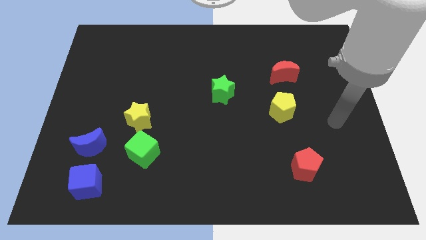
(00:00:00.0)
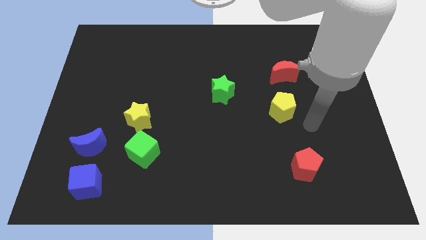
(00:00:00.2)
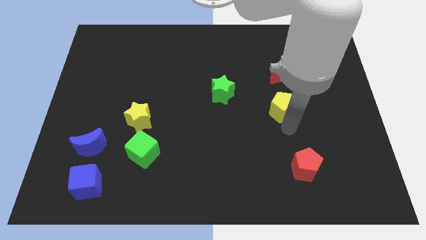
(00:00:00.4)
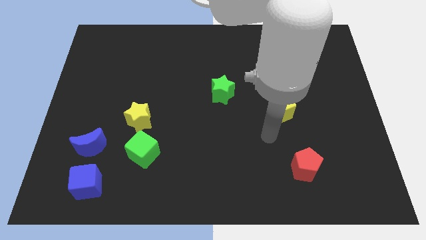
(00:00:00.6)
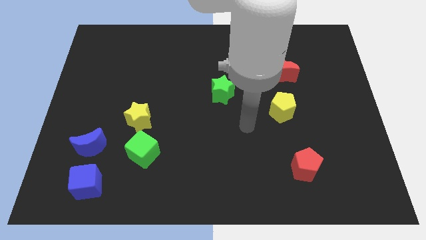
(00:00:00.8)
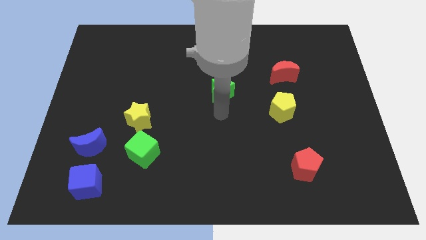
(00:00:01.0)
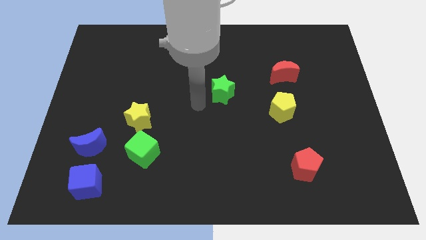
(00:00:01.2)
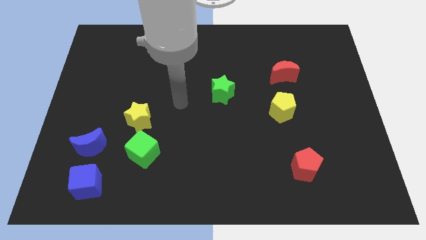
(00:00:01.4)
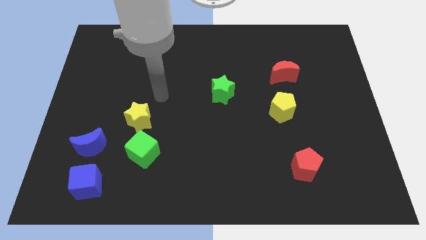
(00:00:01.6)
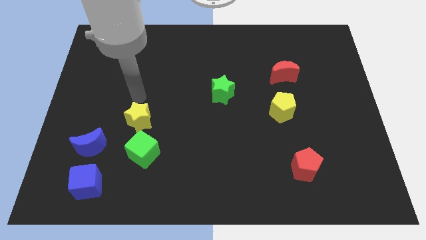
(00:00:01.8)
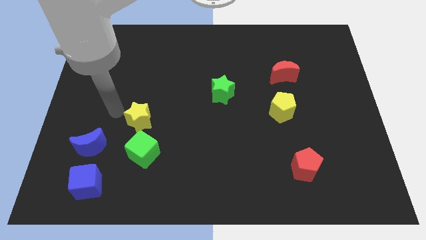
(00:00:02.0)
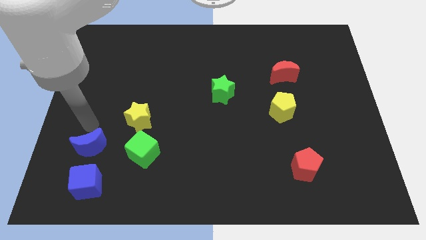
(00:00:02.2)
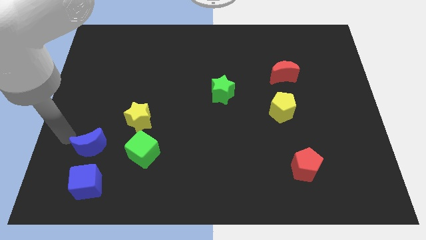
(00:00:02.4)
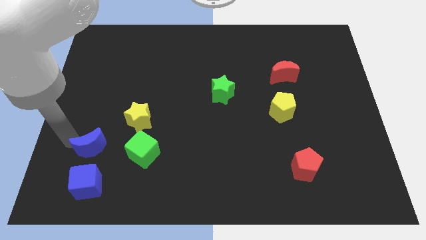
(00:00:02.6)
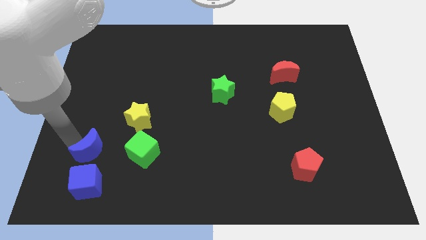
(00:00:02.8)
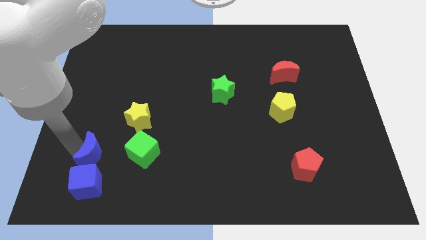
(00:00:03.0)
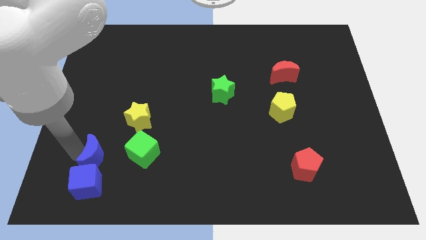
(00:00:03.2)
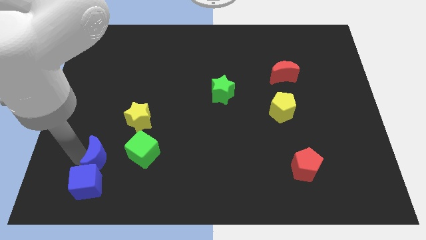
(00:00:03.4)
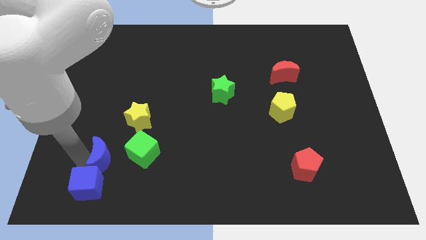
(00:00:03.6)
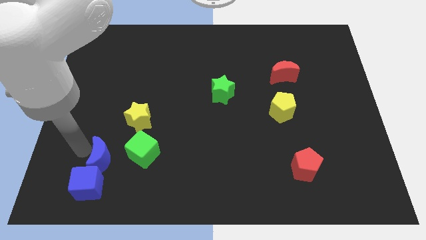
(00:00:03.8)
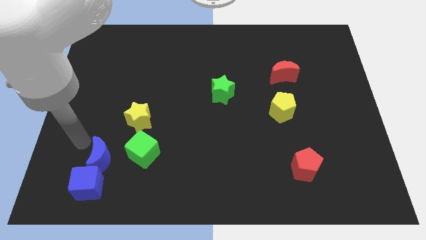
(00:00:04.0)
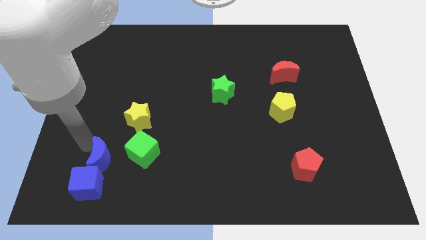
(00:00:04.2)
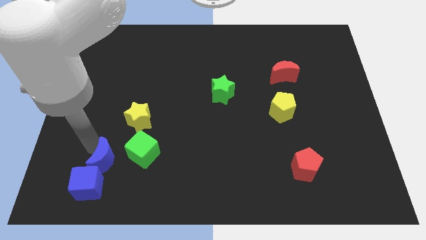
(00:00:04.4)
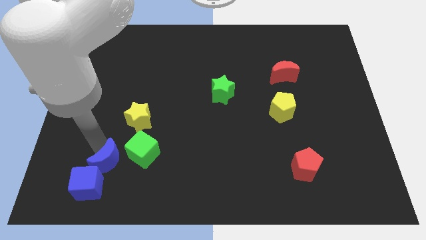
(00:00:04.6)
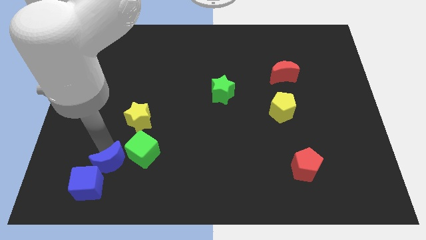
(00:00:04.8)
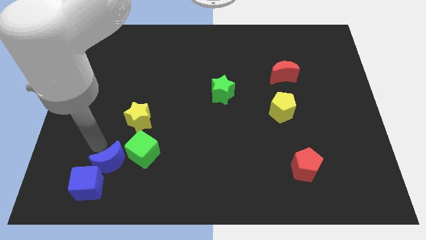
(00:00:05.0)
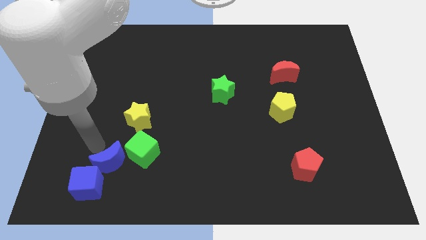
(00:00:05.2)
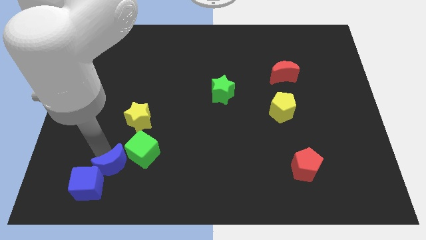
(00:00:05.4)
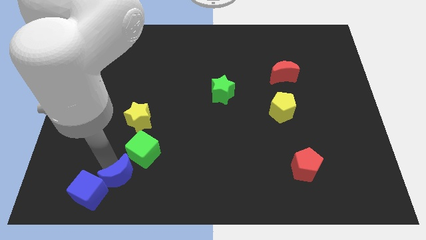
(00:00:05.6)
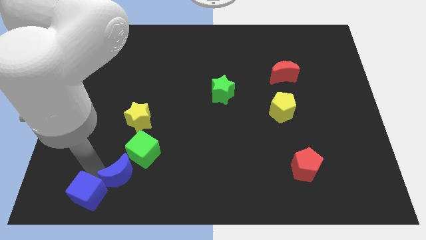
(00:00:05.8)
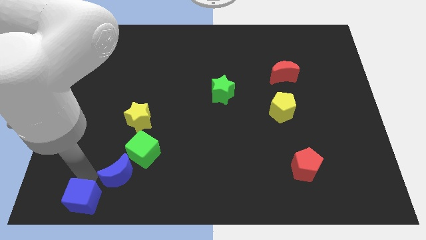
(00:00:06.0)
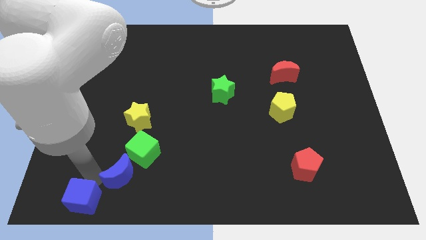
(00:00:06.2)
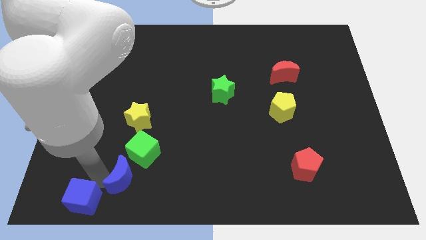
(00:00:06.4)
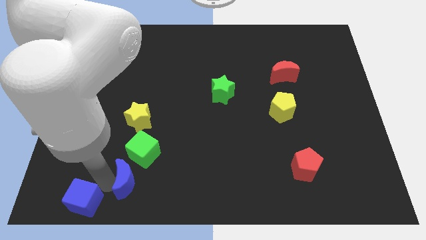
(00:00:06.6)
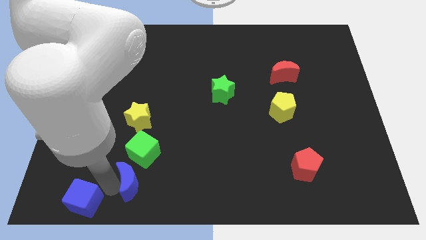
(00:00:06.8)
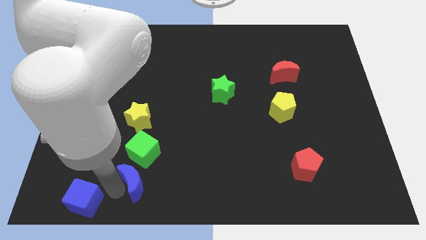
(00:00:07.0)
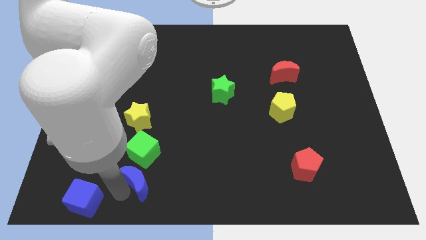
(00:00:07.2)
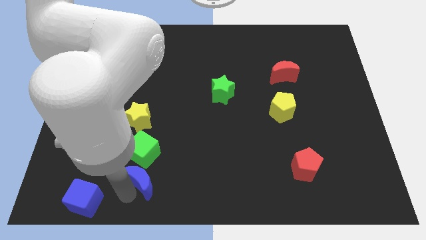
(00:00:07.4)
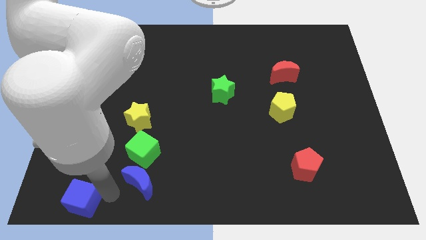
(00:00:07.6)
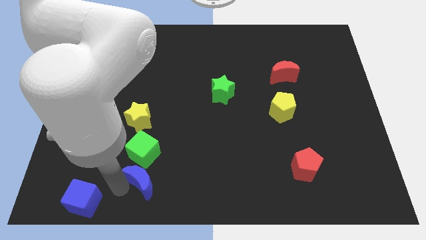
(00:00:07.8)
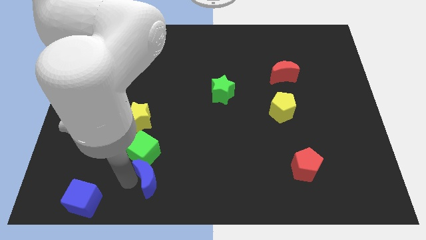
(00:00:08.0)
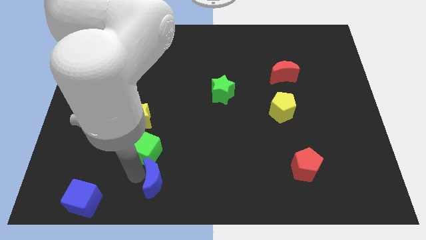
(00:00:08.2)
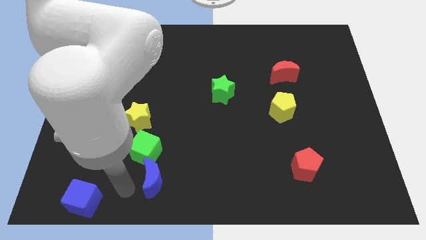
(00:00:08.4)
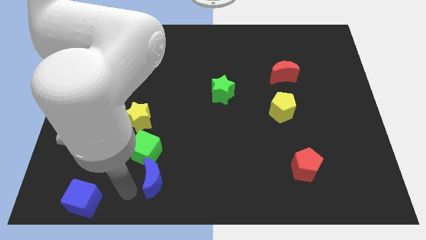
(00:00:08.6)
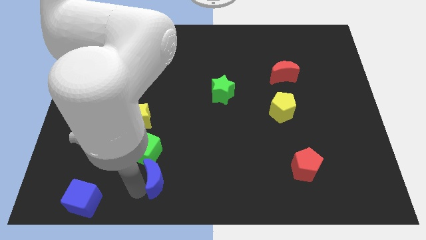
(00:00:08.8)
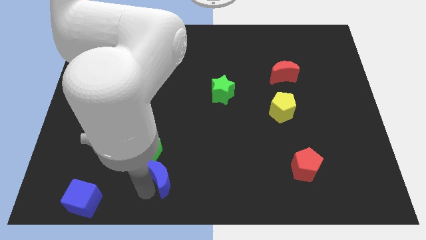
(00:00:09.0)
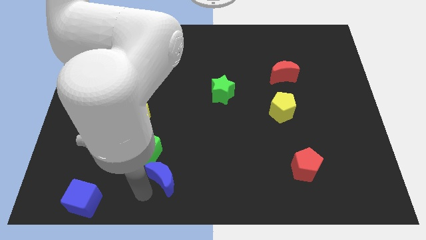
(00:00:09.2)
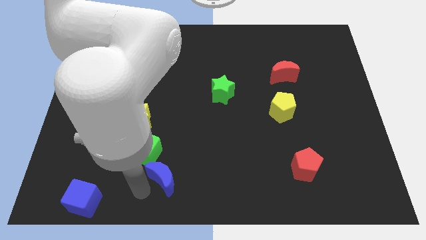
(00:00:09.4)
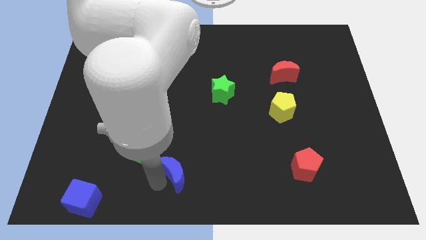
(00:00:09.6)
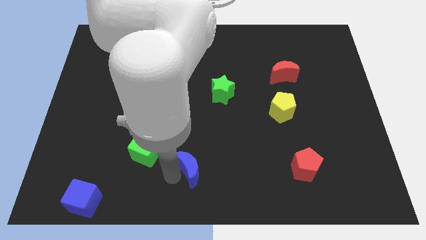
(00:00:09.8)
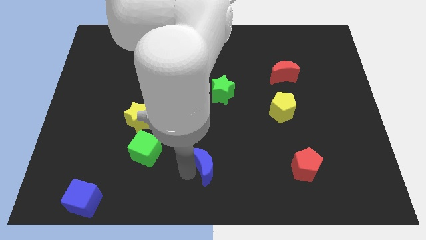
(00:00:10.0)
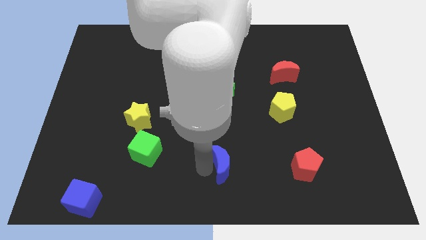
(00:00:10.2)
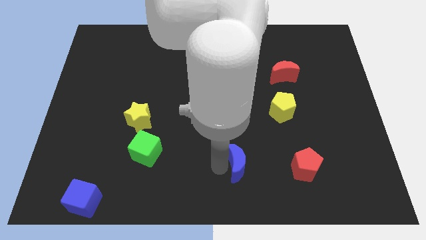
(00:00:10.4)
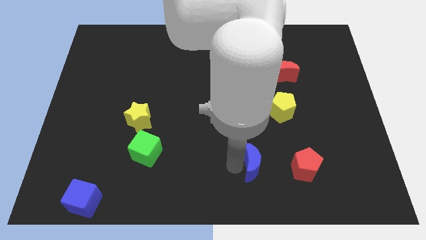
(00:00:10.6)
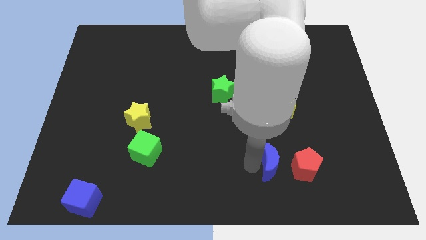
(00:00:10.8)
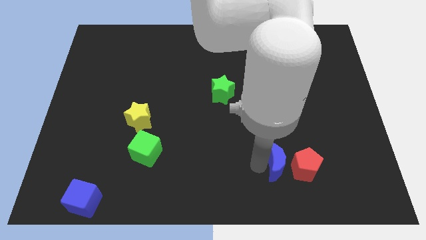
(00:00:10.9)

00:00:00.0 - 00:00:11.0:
move the blue moon towards the red pentagon
